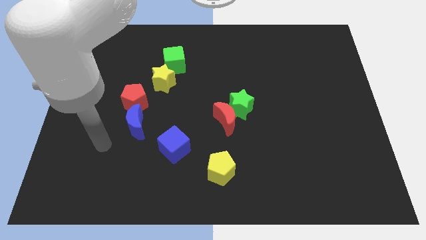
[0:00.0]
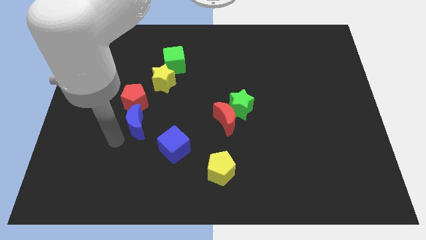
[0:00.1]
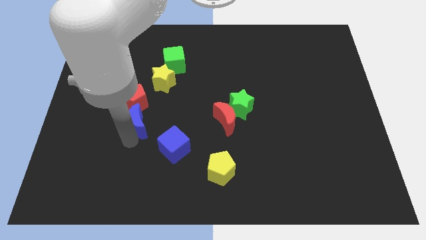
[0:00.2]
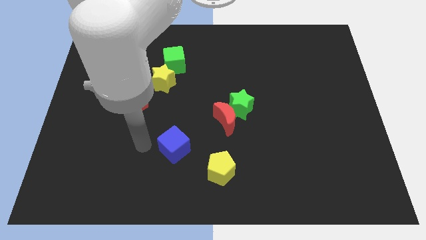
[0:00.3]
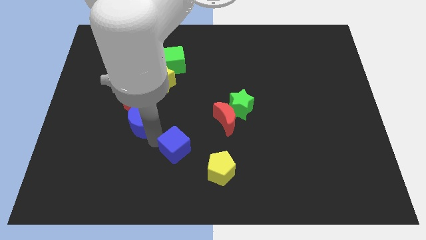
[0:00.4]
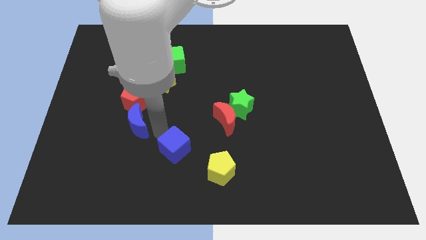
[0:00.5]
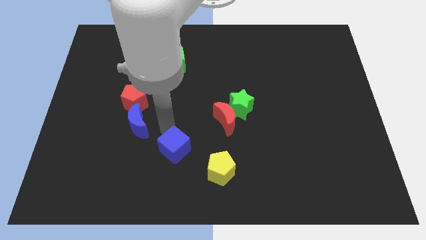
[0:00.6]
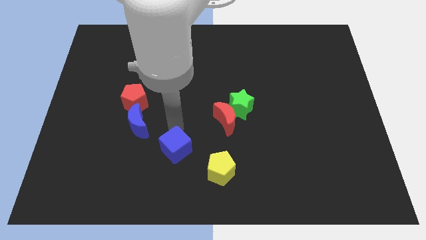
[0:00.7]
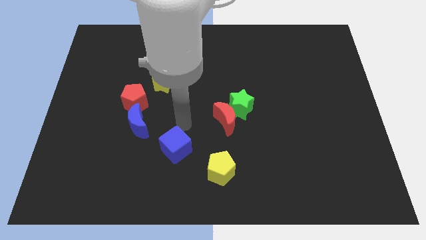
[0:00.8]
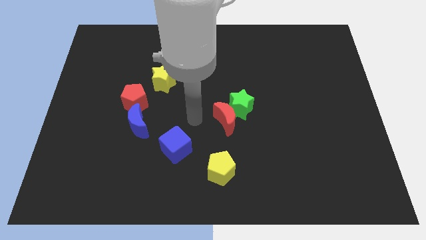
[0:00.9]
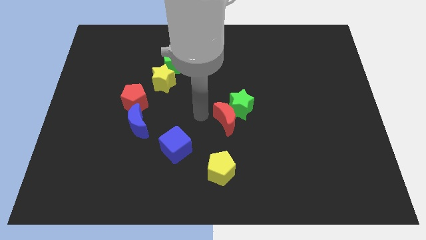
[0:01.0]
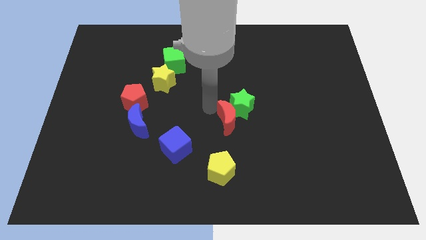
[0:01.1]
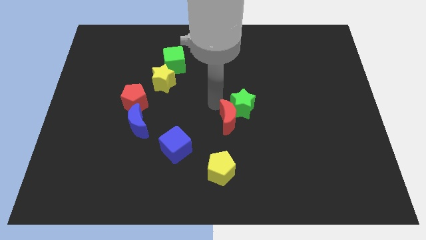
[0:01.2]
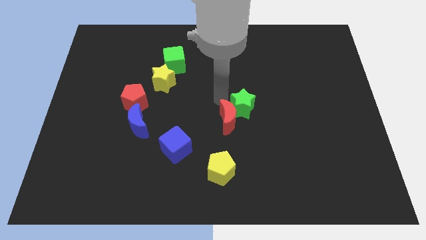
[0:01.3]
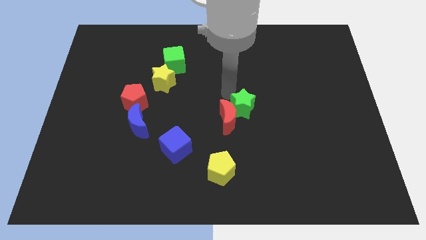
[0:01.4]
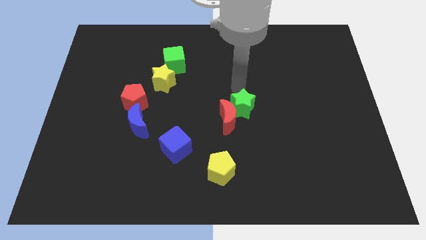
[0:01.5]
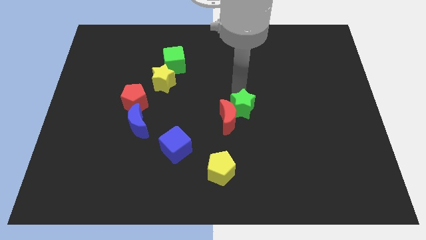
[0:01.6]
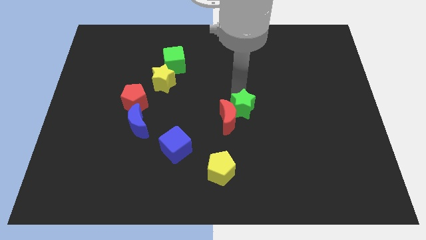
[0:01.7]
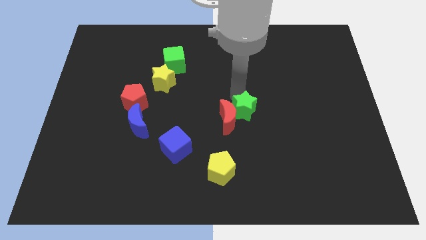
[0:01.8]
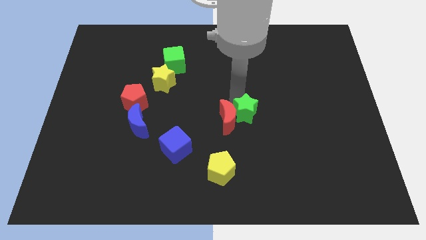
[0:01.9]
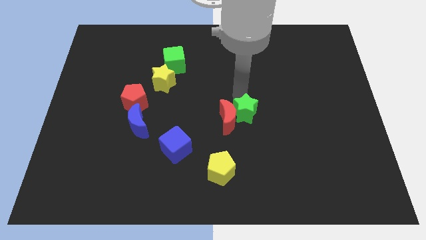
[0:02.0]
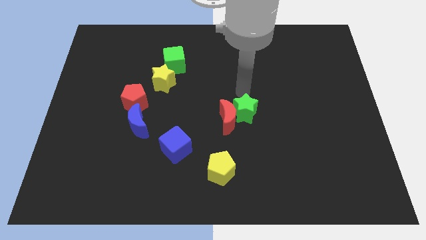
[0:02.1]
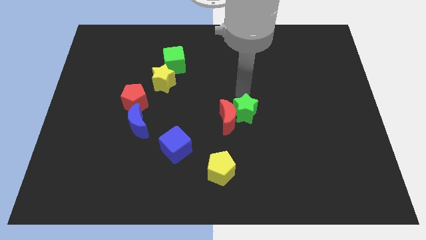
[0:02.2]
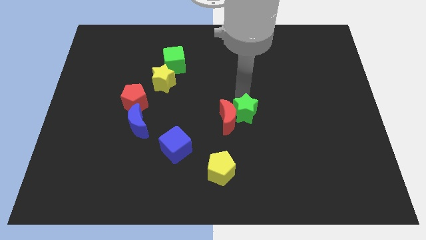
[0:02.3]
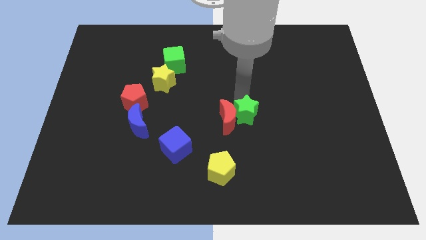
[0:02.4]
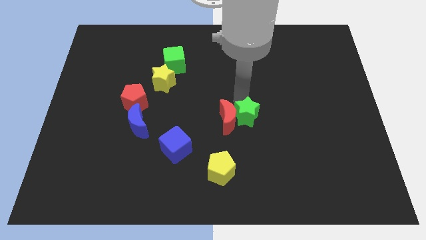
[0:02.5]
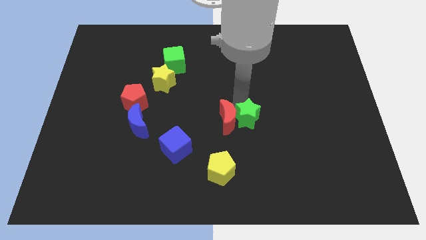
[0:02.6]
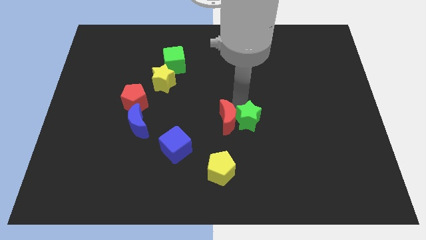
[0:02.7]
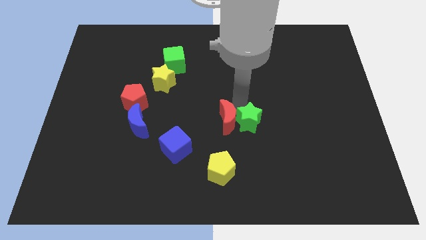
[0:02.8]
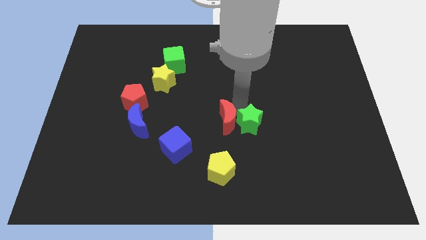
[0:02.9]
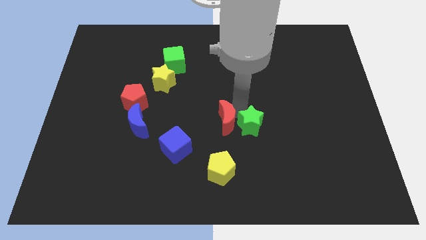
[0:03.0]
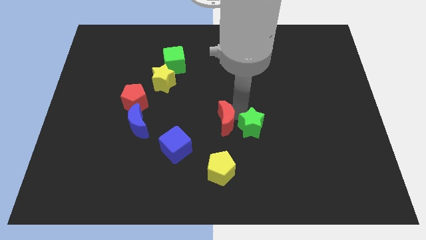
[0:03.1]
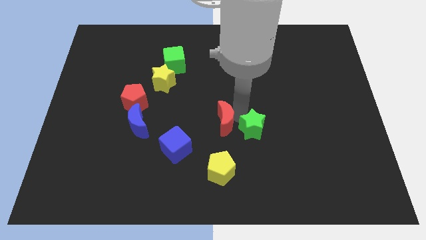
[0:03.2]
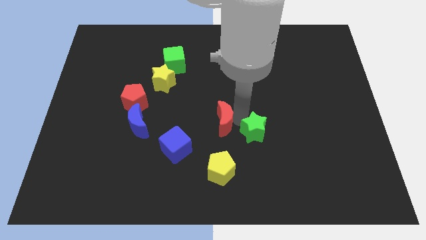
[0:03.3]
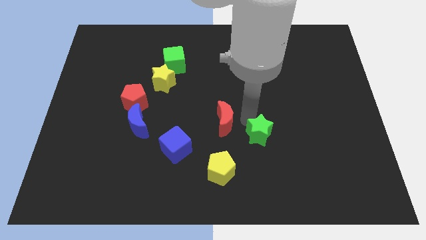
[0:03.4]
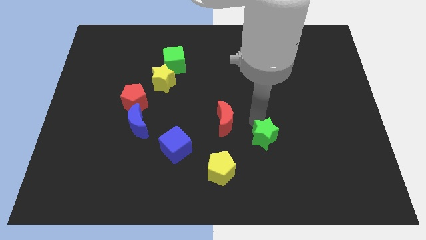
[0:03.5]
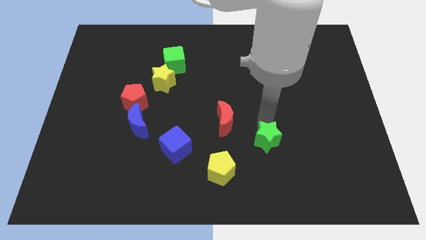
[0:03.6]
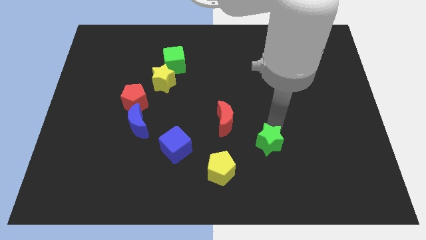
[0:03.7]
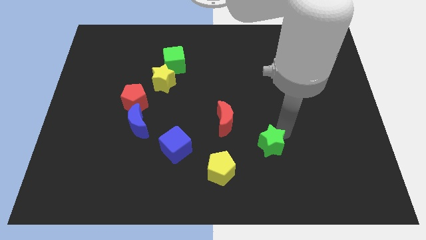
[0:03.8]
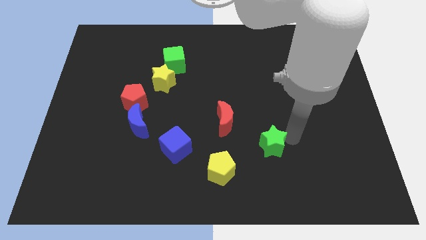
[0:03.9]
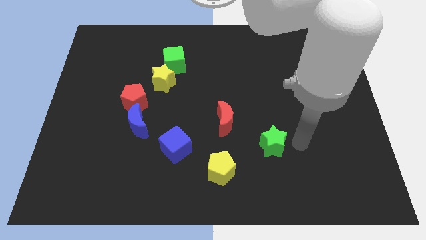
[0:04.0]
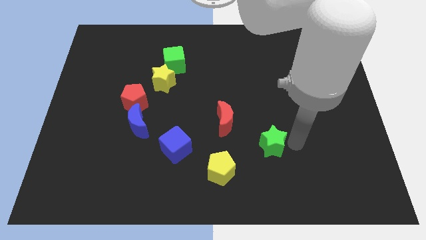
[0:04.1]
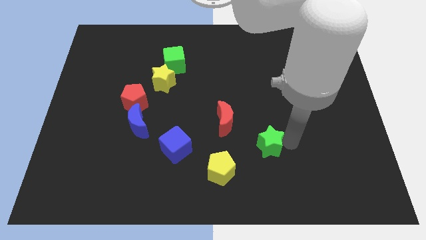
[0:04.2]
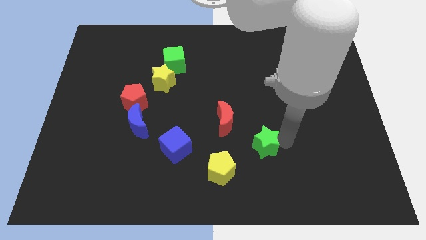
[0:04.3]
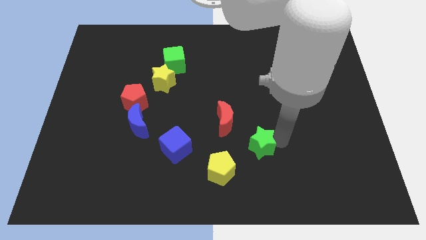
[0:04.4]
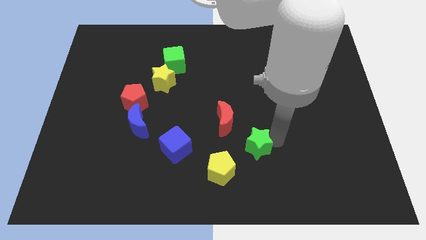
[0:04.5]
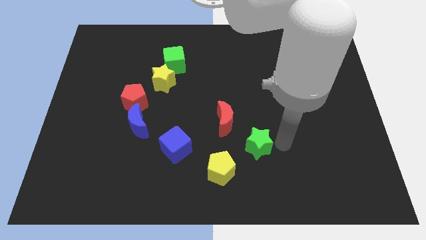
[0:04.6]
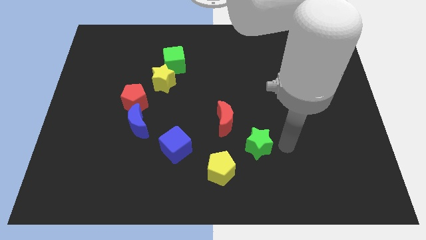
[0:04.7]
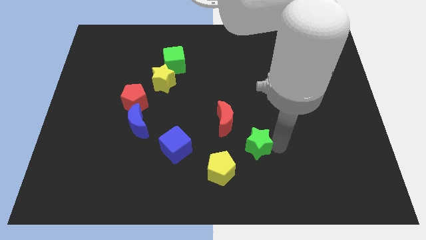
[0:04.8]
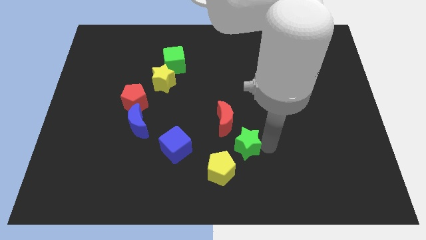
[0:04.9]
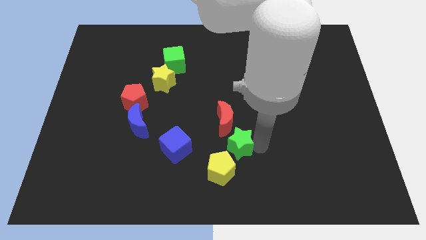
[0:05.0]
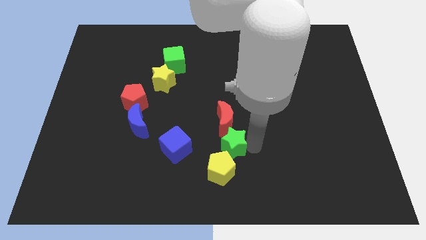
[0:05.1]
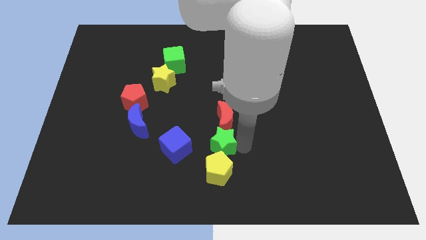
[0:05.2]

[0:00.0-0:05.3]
slide the green star to the top left side of the yellow pentagon

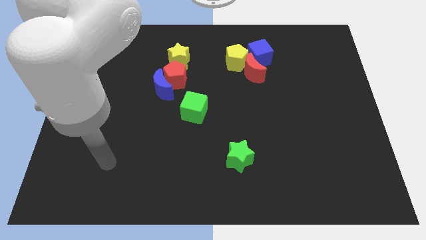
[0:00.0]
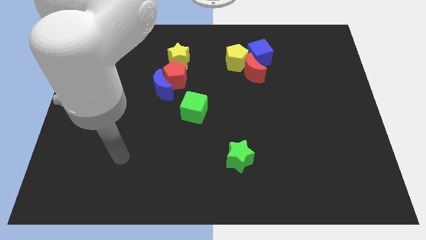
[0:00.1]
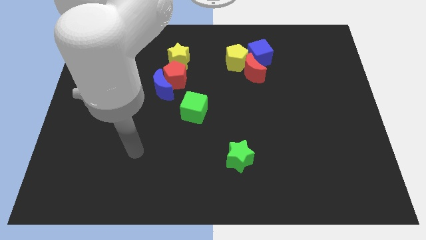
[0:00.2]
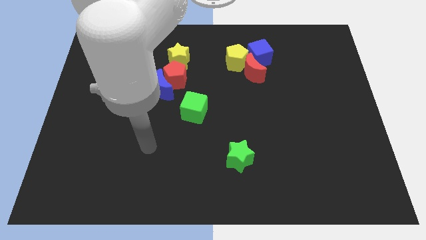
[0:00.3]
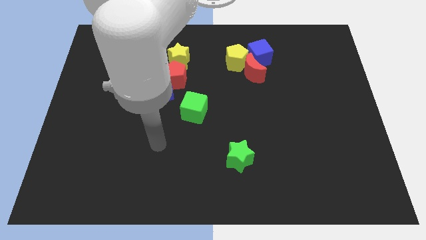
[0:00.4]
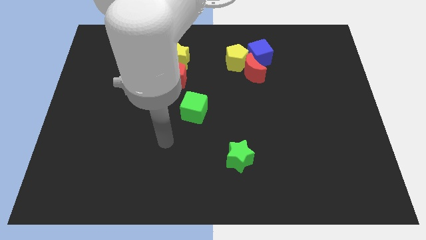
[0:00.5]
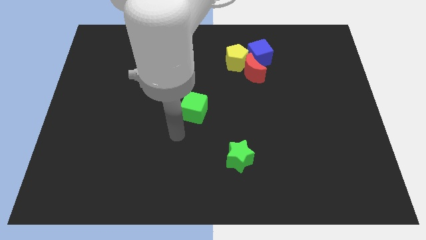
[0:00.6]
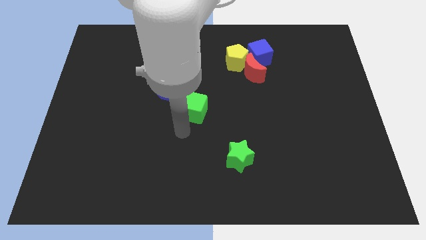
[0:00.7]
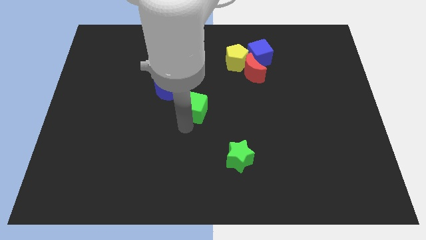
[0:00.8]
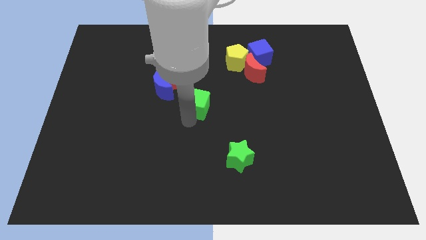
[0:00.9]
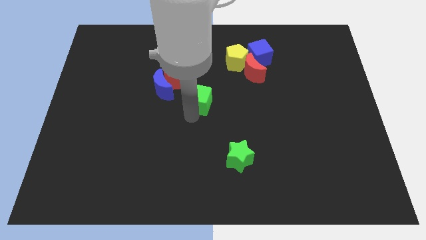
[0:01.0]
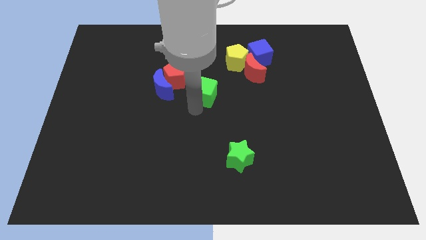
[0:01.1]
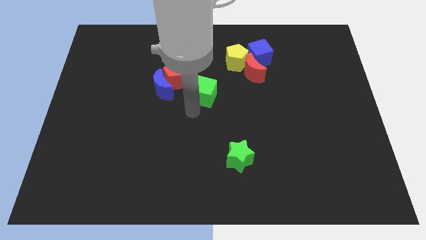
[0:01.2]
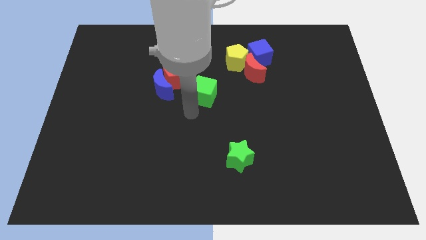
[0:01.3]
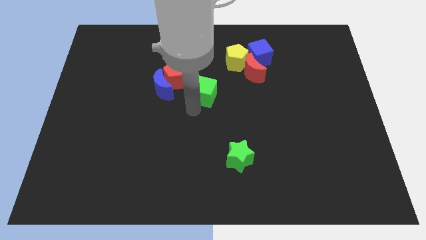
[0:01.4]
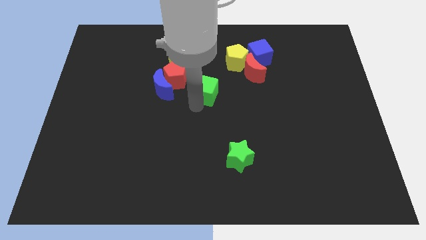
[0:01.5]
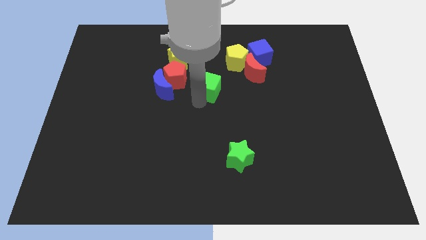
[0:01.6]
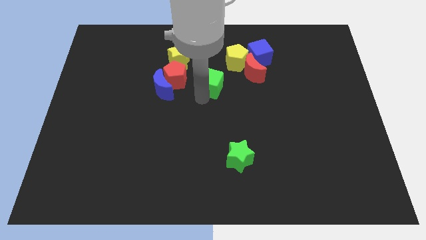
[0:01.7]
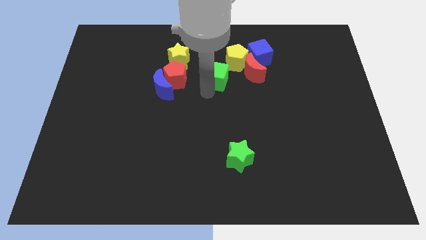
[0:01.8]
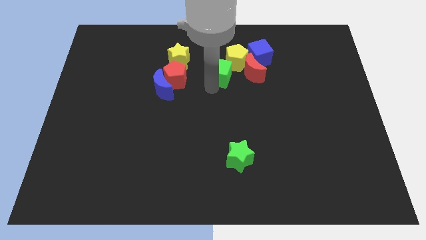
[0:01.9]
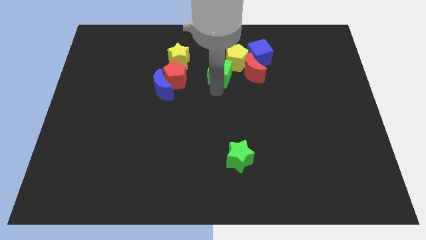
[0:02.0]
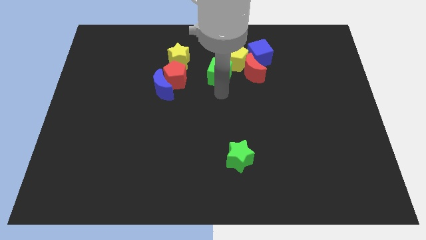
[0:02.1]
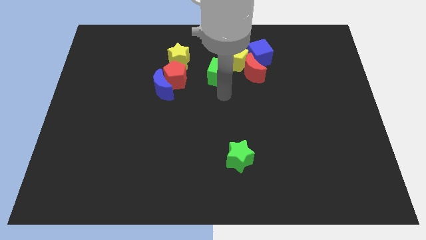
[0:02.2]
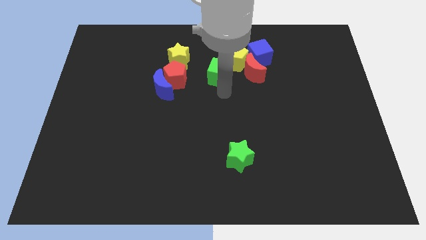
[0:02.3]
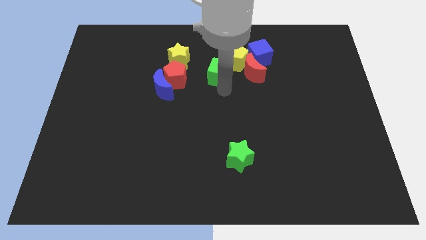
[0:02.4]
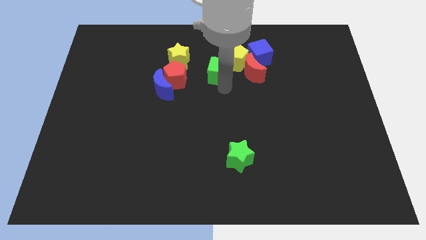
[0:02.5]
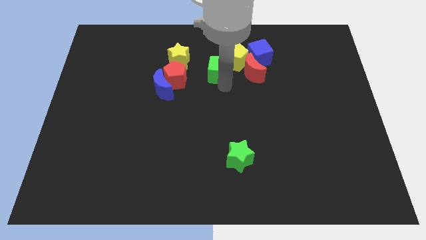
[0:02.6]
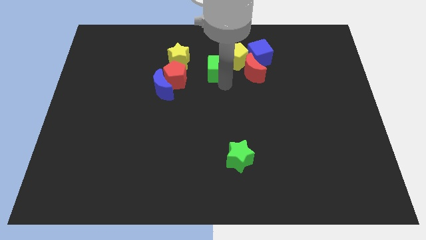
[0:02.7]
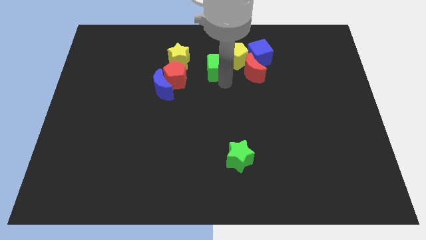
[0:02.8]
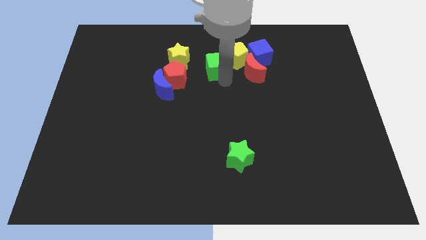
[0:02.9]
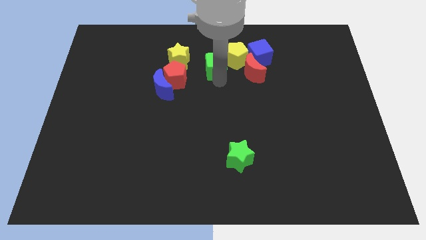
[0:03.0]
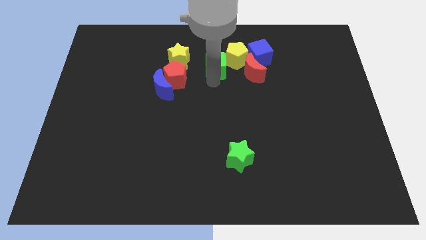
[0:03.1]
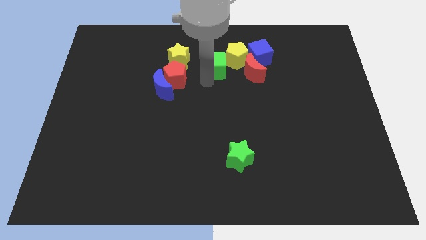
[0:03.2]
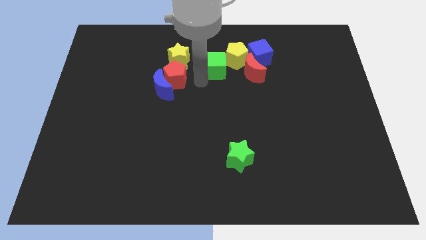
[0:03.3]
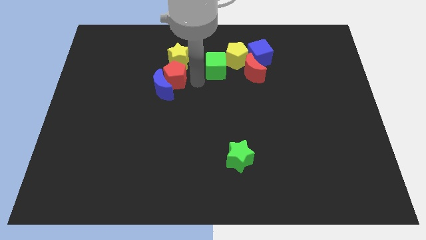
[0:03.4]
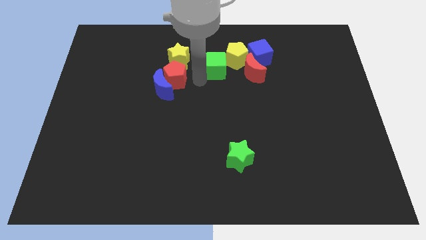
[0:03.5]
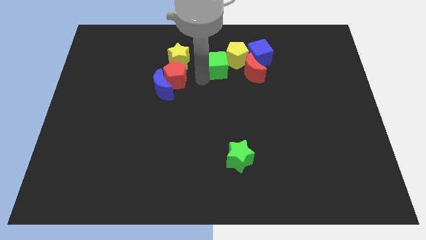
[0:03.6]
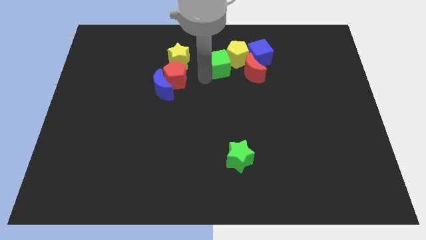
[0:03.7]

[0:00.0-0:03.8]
slide the green cube to the top left of the red moon
